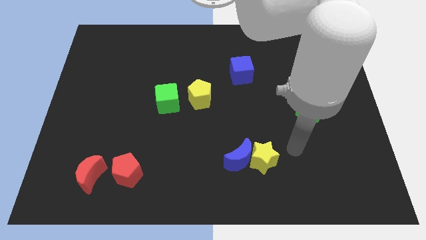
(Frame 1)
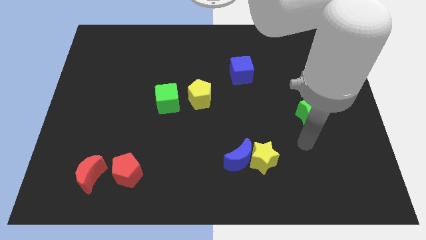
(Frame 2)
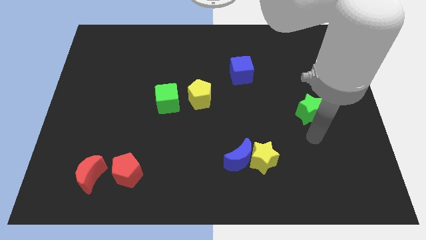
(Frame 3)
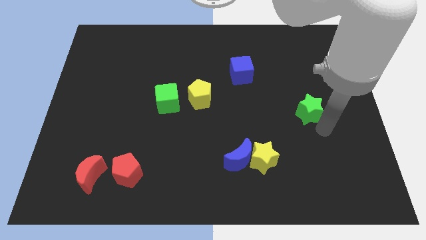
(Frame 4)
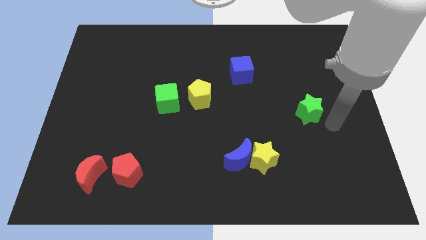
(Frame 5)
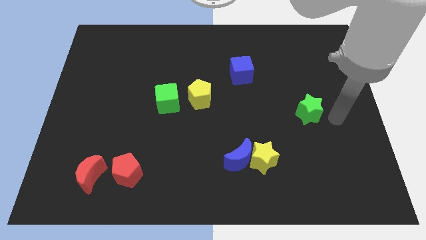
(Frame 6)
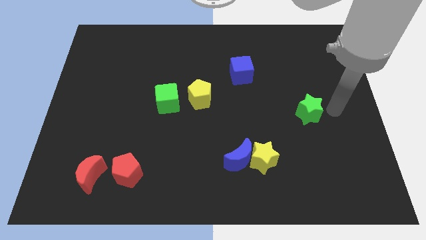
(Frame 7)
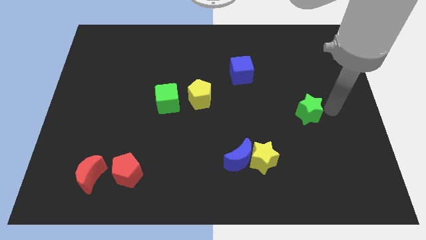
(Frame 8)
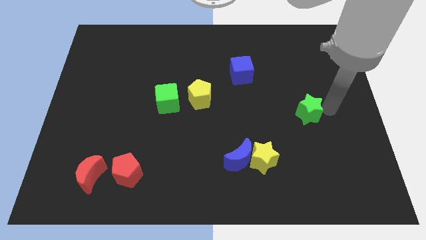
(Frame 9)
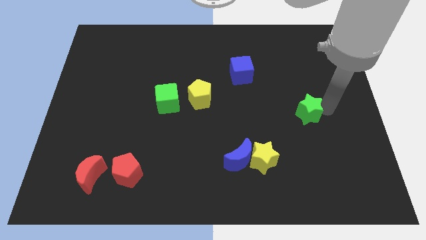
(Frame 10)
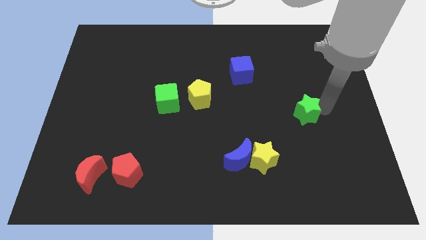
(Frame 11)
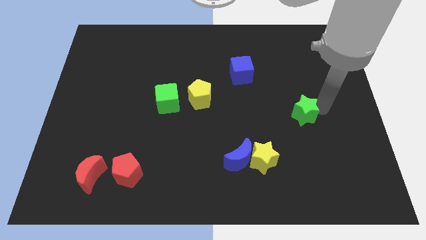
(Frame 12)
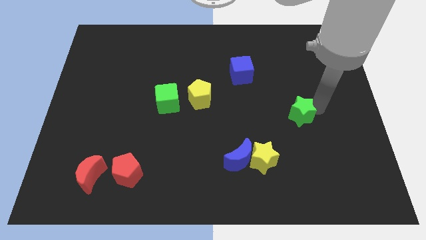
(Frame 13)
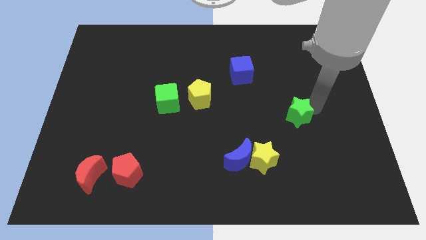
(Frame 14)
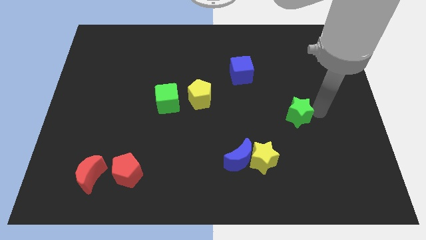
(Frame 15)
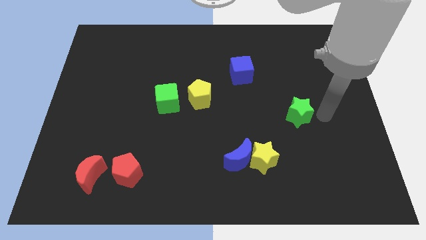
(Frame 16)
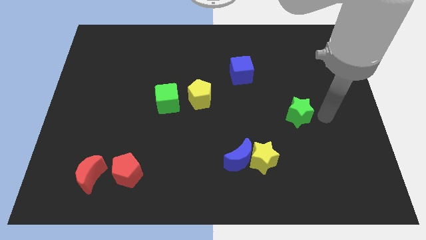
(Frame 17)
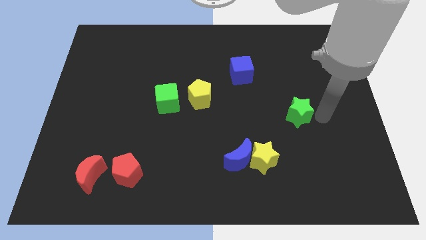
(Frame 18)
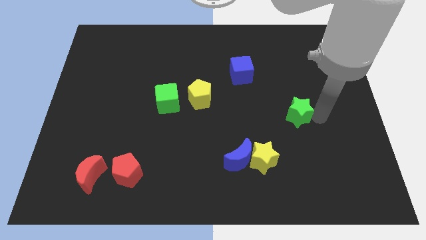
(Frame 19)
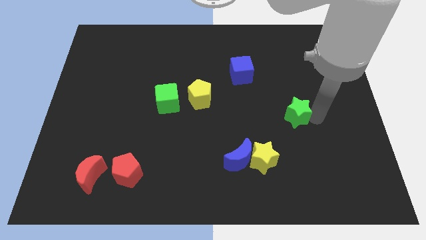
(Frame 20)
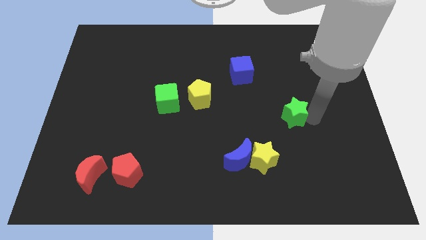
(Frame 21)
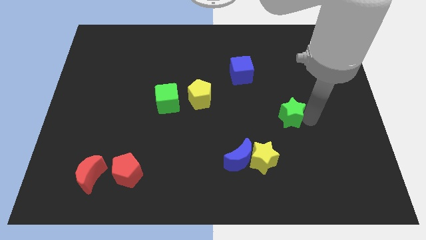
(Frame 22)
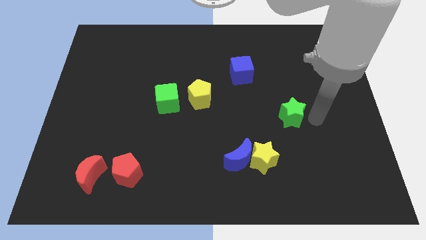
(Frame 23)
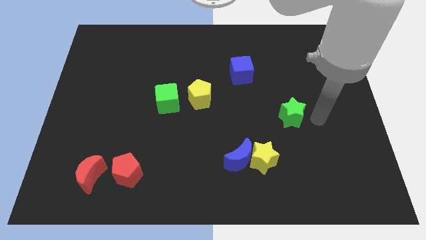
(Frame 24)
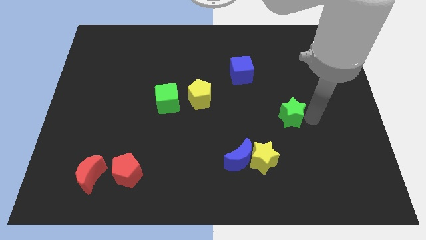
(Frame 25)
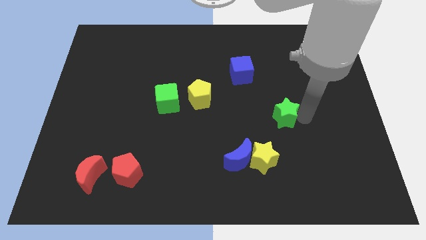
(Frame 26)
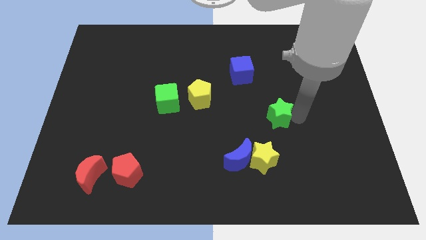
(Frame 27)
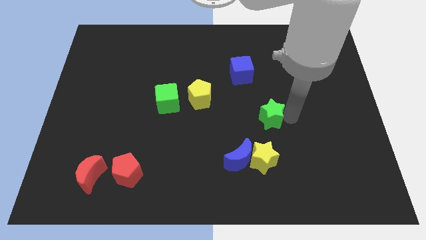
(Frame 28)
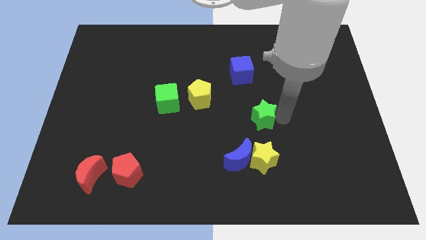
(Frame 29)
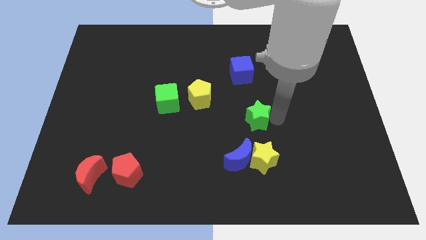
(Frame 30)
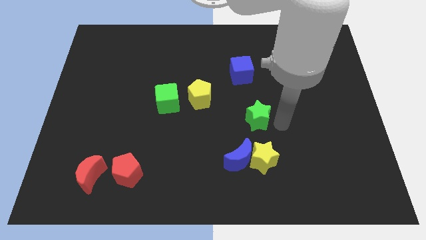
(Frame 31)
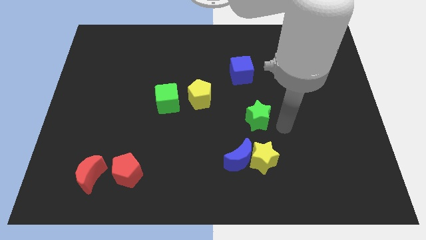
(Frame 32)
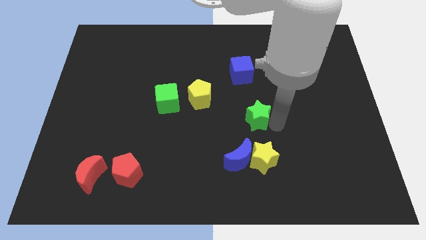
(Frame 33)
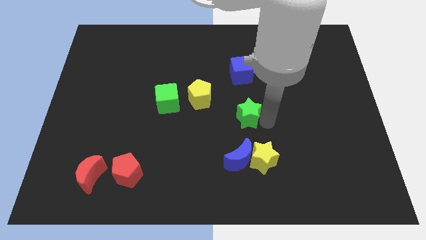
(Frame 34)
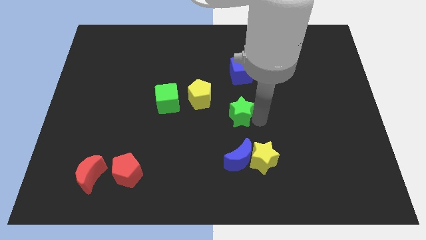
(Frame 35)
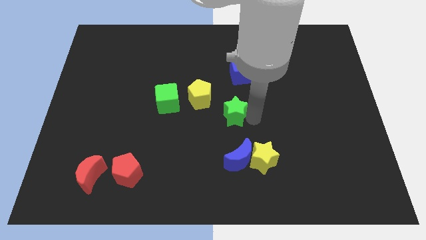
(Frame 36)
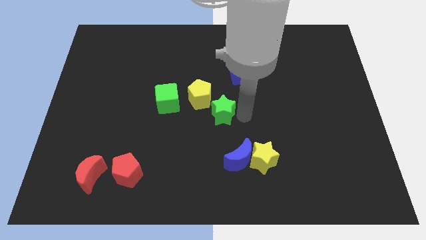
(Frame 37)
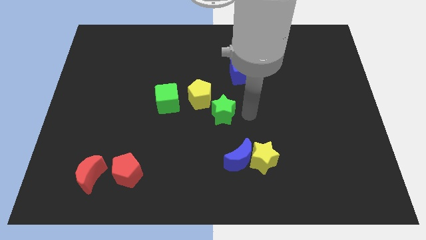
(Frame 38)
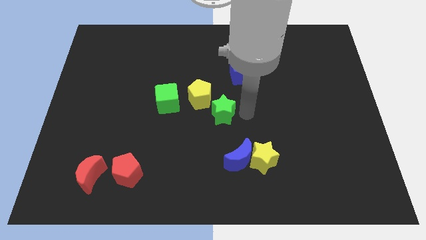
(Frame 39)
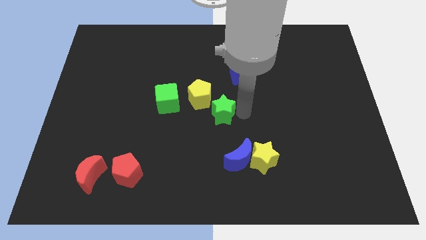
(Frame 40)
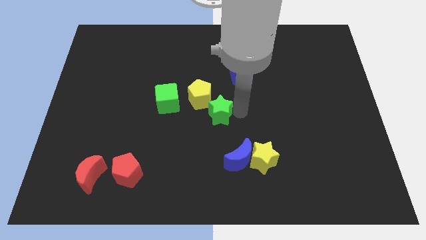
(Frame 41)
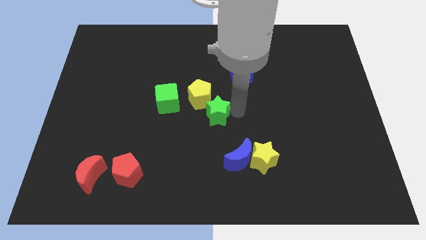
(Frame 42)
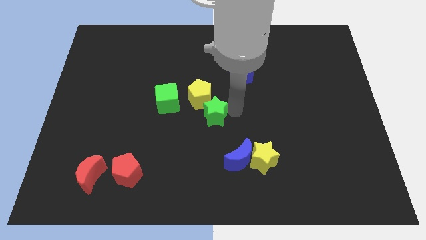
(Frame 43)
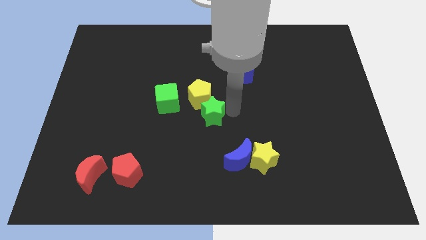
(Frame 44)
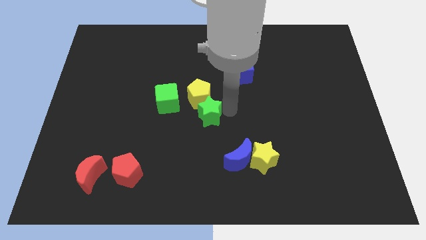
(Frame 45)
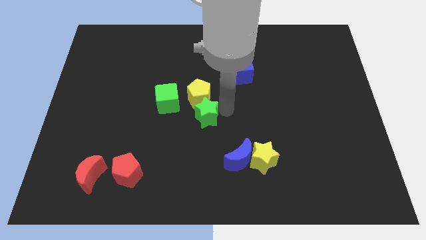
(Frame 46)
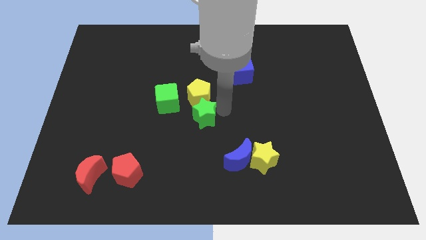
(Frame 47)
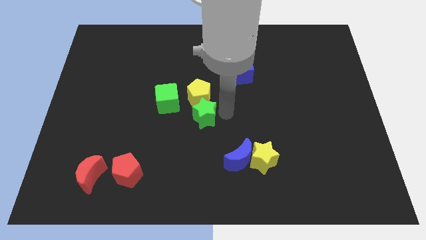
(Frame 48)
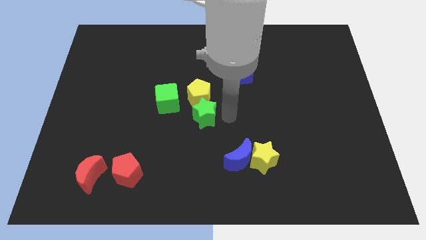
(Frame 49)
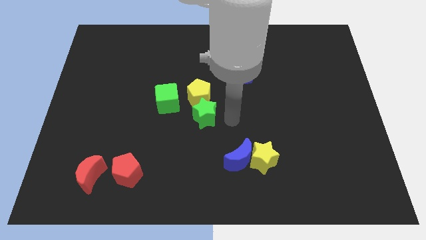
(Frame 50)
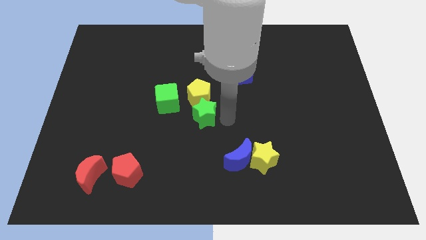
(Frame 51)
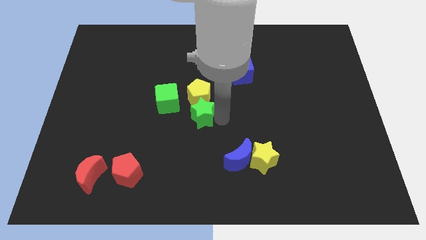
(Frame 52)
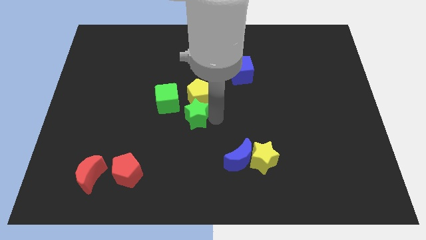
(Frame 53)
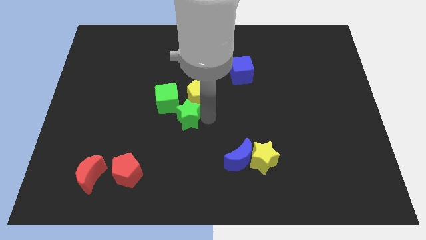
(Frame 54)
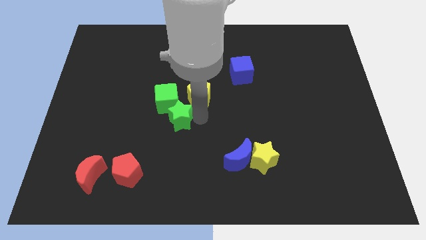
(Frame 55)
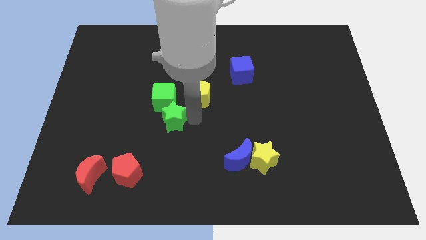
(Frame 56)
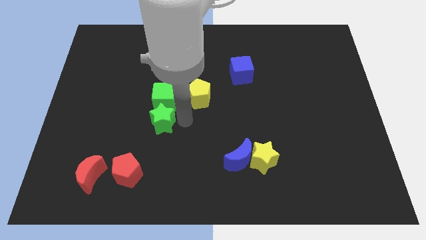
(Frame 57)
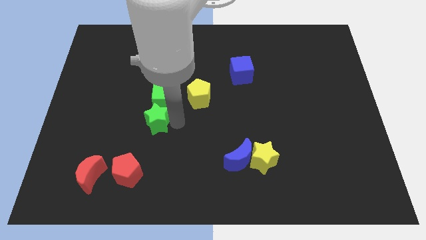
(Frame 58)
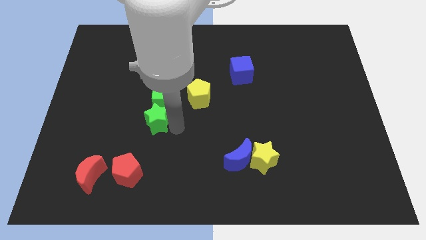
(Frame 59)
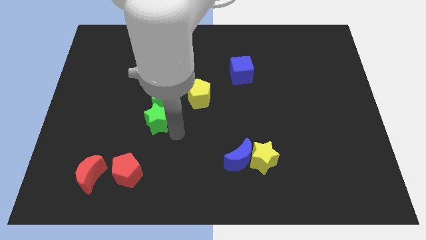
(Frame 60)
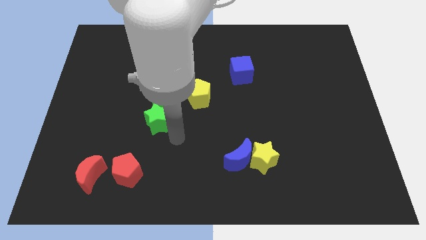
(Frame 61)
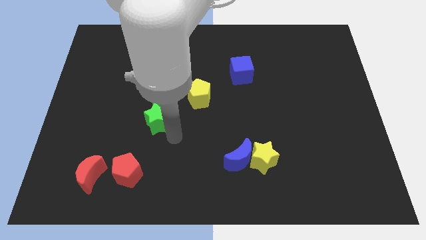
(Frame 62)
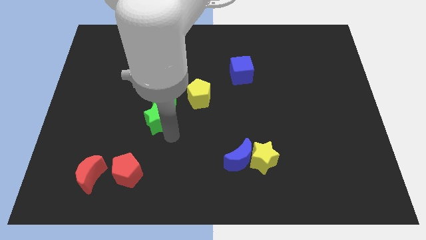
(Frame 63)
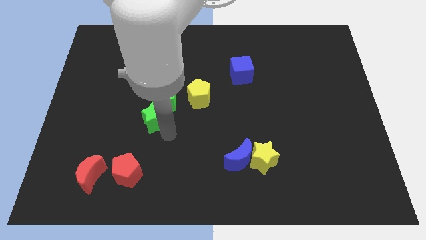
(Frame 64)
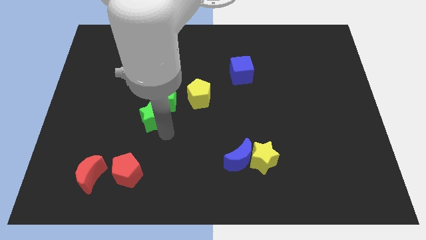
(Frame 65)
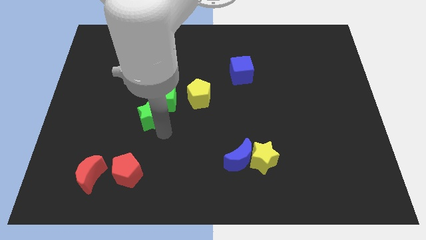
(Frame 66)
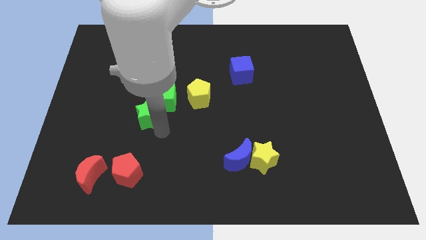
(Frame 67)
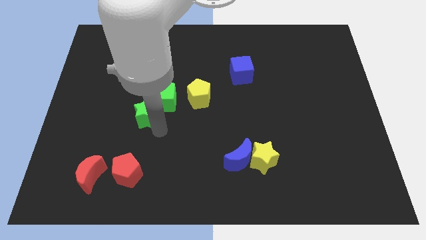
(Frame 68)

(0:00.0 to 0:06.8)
slide the green star left of the green cube

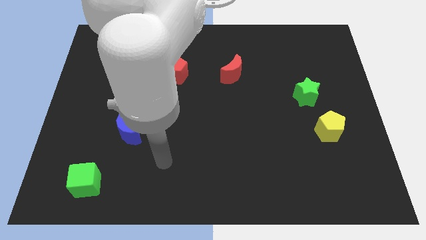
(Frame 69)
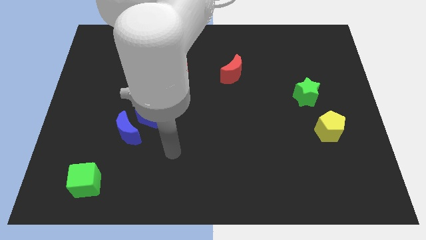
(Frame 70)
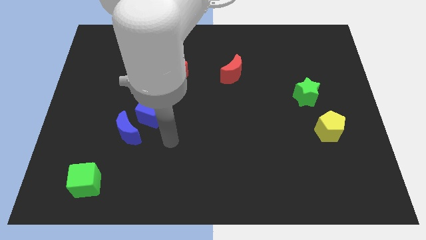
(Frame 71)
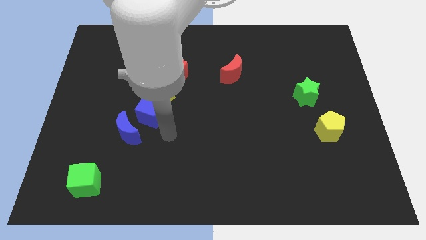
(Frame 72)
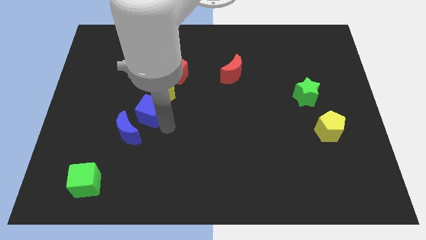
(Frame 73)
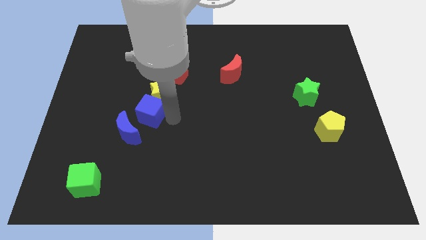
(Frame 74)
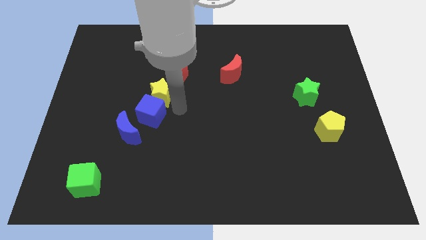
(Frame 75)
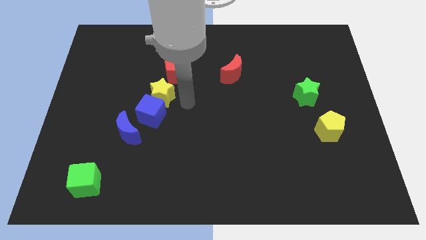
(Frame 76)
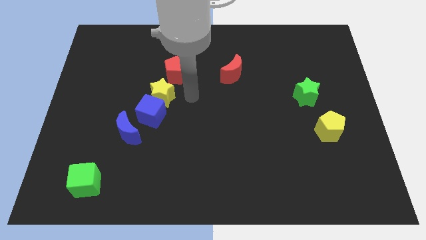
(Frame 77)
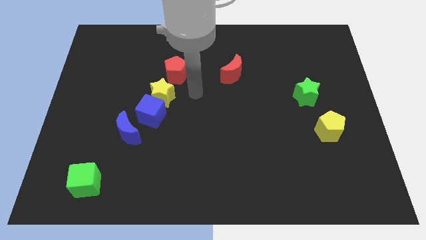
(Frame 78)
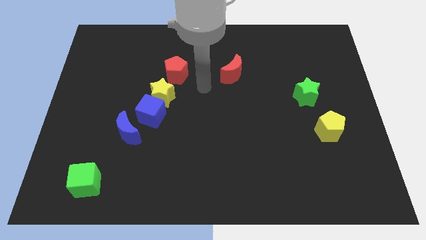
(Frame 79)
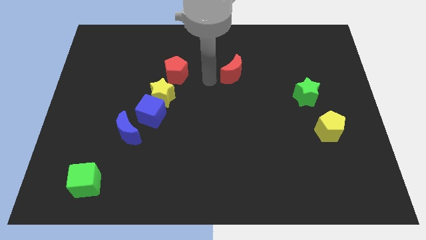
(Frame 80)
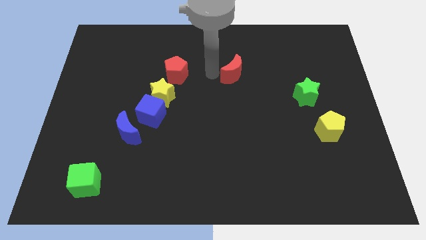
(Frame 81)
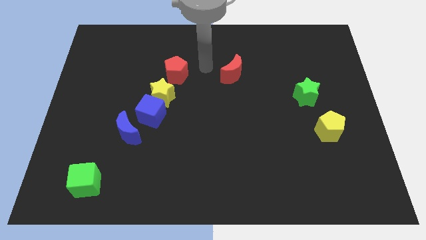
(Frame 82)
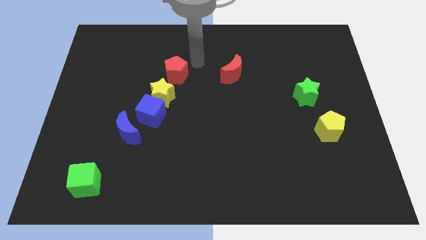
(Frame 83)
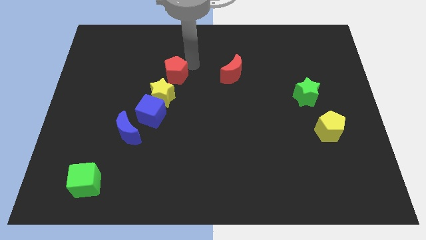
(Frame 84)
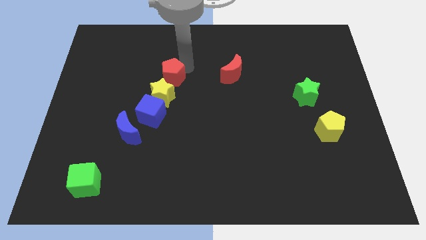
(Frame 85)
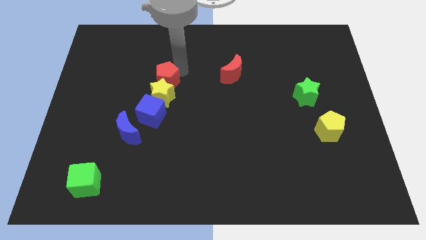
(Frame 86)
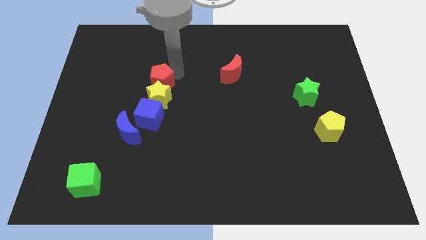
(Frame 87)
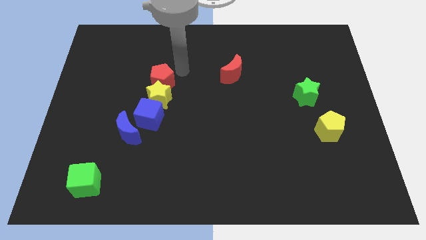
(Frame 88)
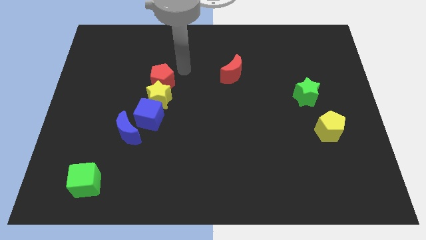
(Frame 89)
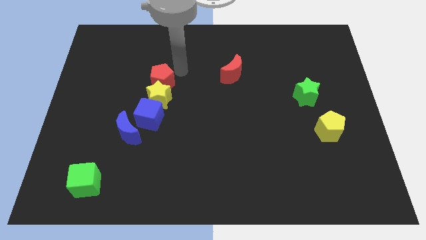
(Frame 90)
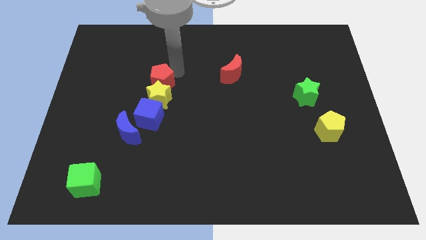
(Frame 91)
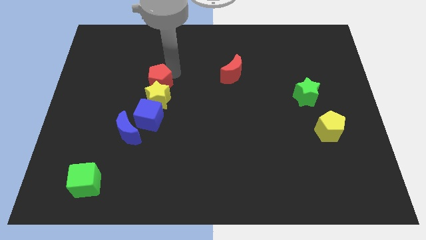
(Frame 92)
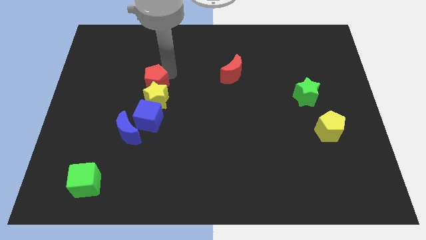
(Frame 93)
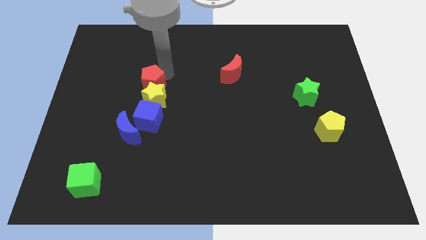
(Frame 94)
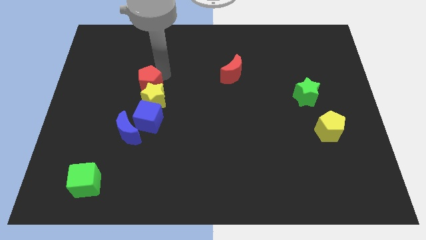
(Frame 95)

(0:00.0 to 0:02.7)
put the red pentagon to the top side of the blue moon
